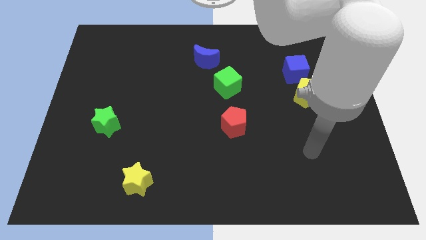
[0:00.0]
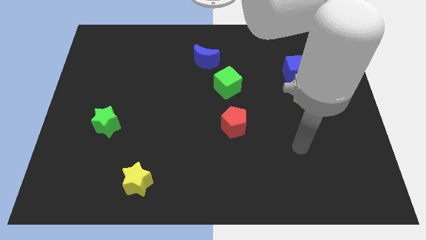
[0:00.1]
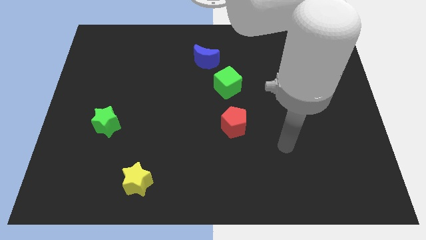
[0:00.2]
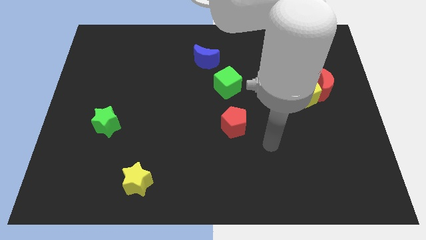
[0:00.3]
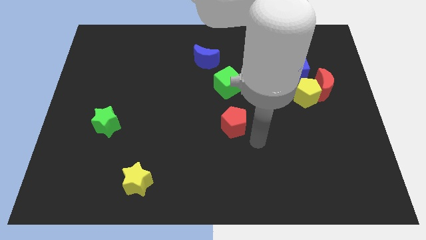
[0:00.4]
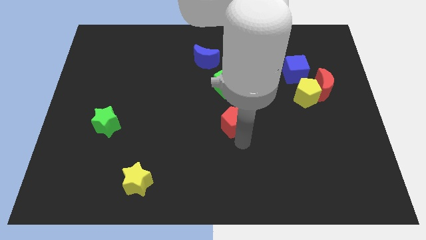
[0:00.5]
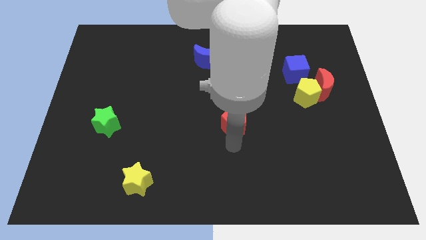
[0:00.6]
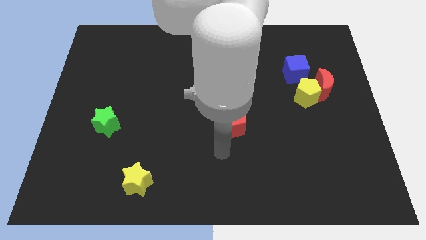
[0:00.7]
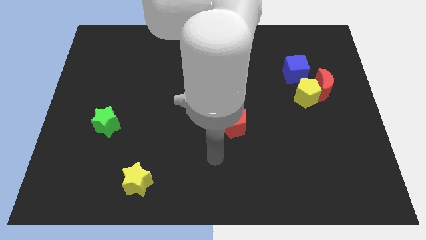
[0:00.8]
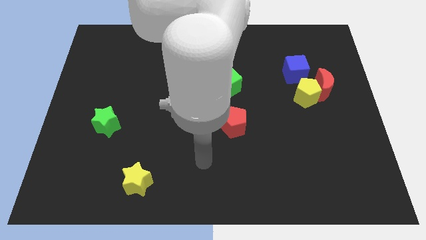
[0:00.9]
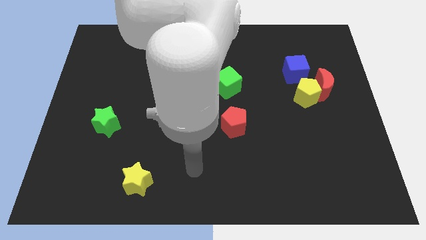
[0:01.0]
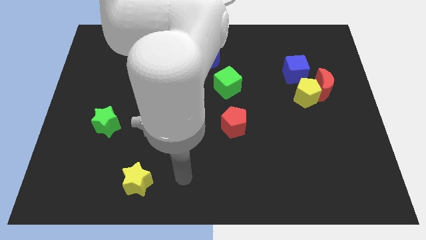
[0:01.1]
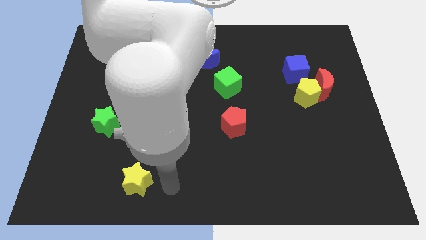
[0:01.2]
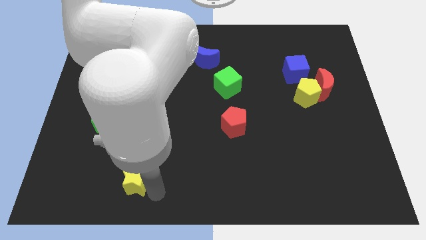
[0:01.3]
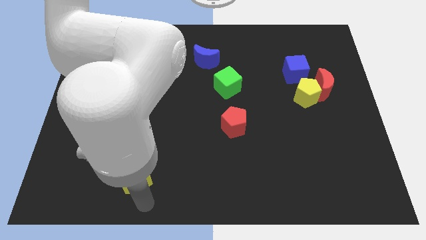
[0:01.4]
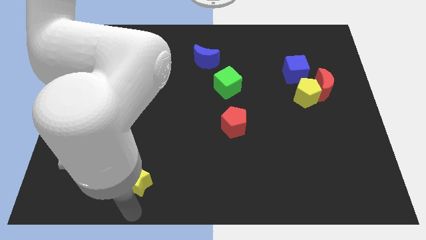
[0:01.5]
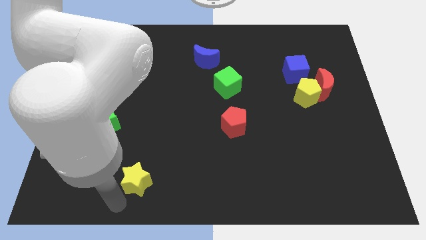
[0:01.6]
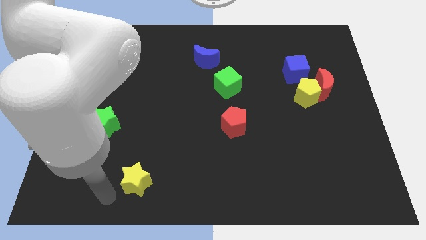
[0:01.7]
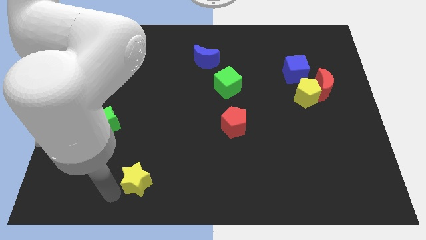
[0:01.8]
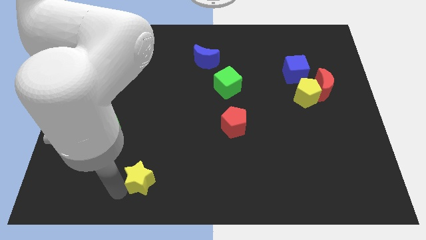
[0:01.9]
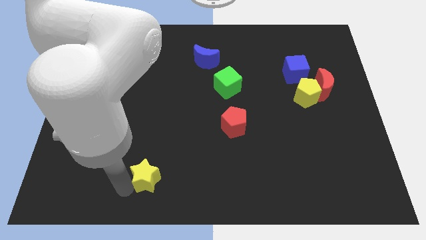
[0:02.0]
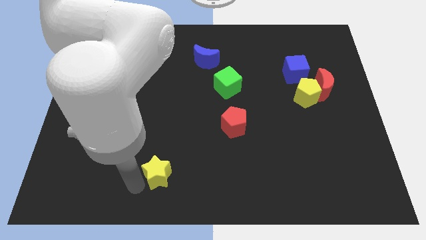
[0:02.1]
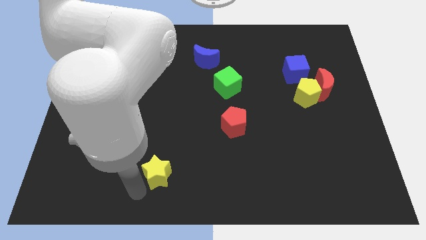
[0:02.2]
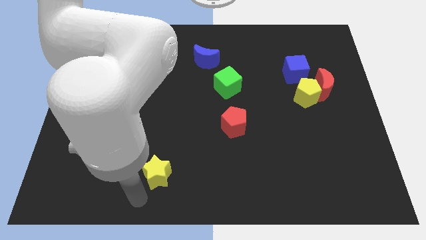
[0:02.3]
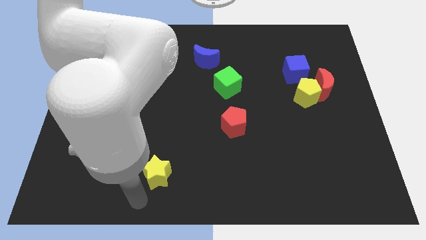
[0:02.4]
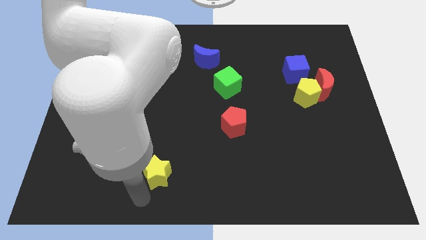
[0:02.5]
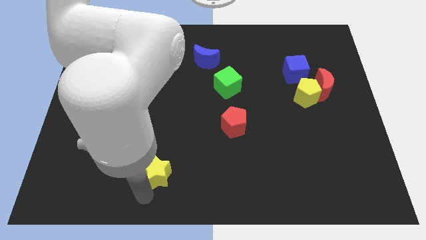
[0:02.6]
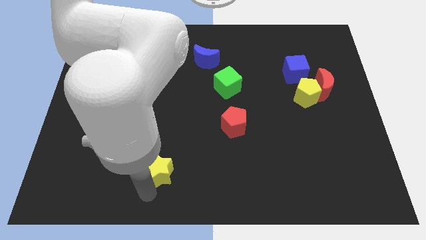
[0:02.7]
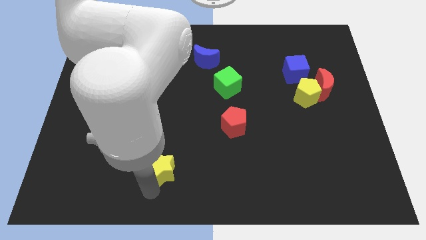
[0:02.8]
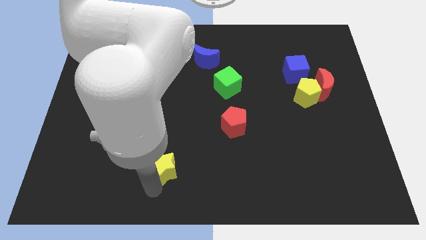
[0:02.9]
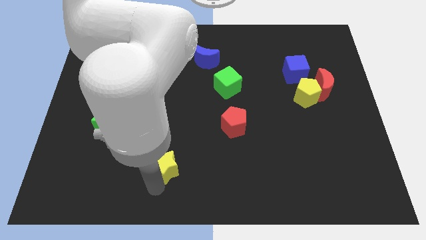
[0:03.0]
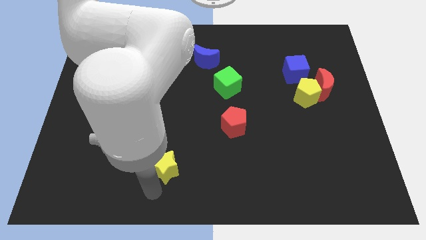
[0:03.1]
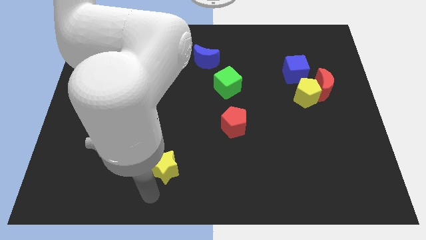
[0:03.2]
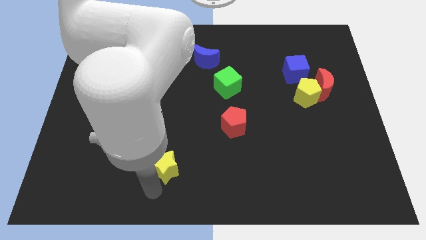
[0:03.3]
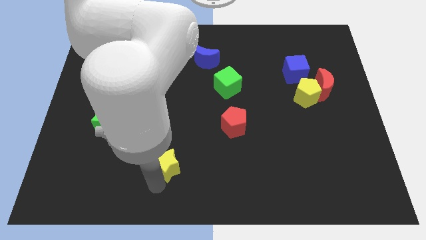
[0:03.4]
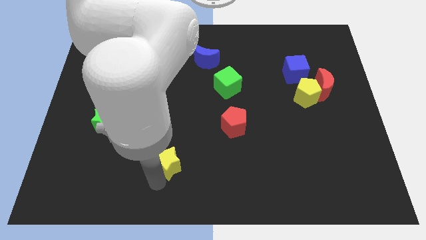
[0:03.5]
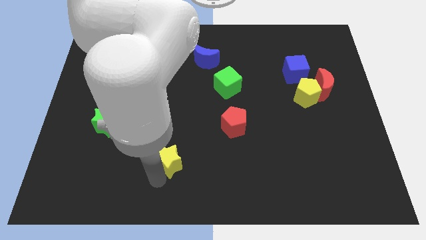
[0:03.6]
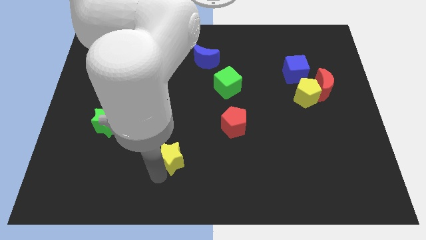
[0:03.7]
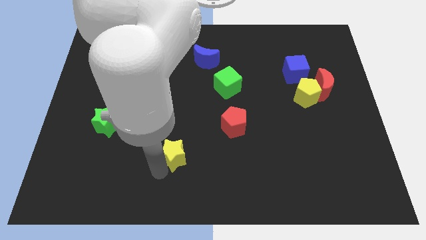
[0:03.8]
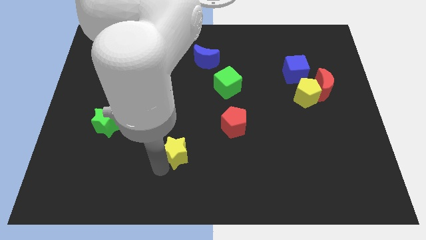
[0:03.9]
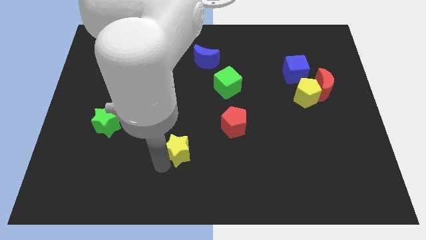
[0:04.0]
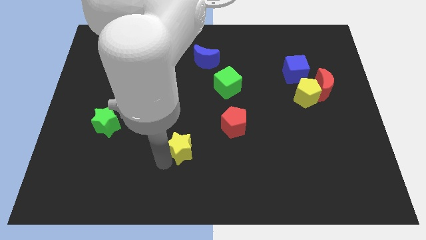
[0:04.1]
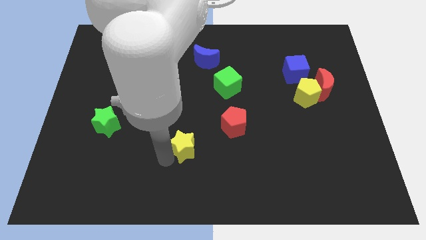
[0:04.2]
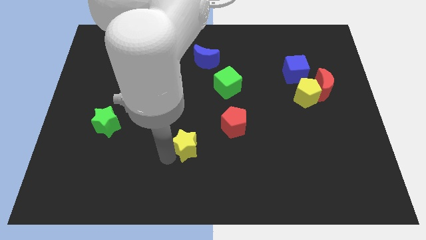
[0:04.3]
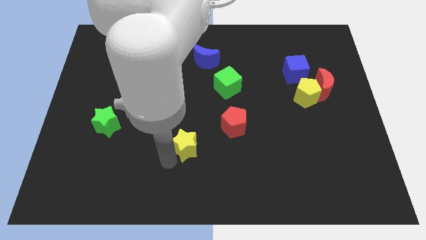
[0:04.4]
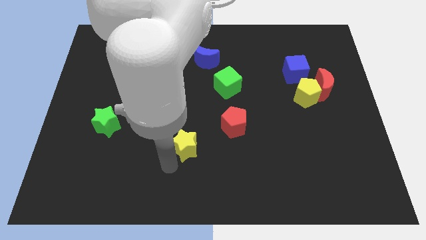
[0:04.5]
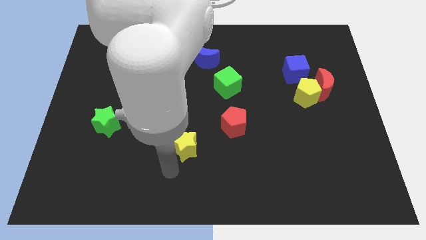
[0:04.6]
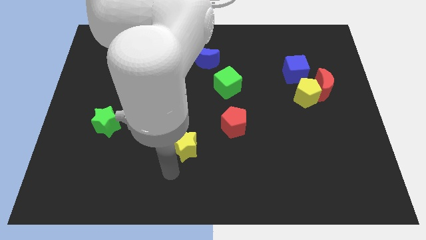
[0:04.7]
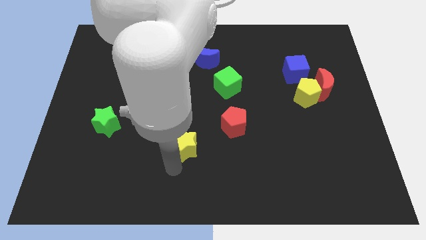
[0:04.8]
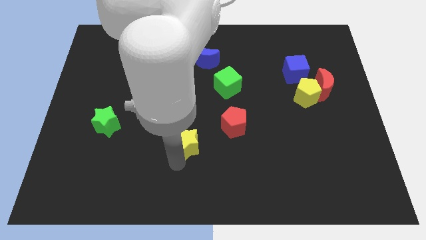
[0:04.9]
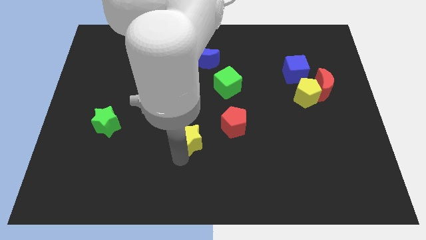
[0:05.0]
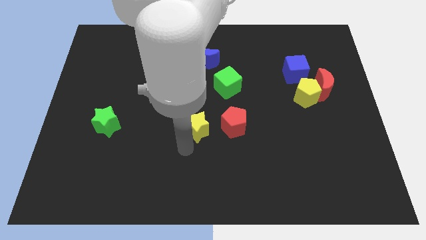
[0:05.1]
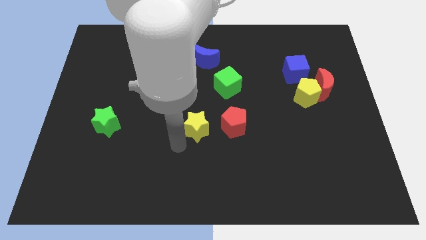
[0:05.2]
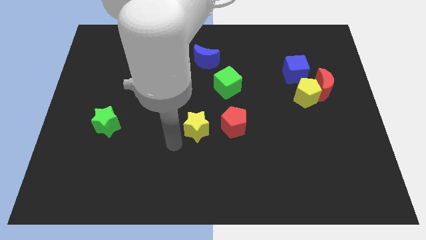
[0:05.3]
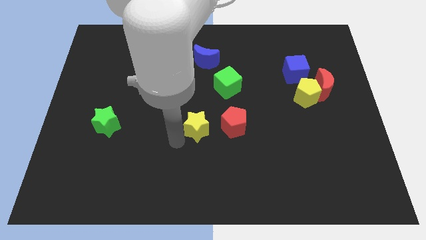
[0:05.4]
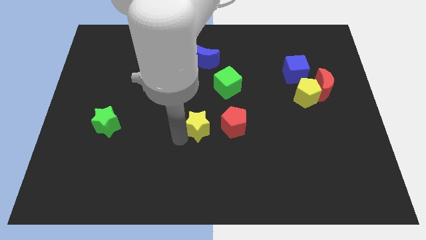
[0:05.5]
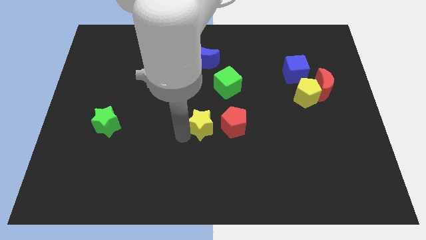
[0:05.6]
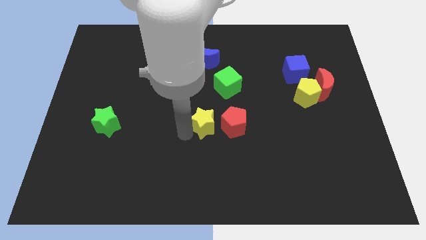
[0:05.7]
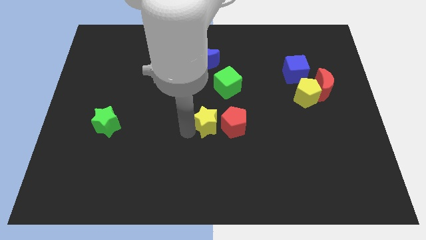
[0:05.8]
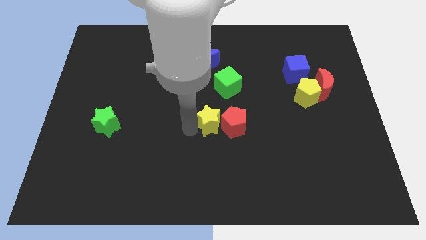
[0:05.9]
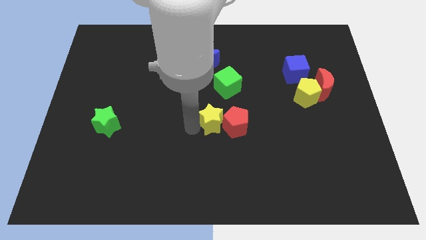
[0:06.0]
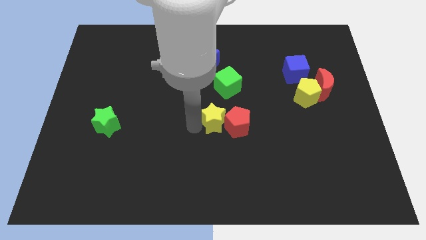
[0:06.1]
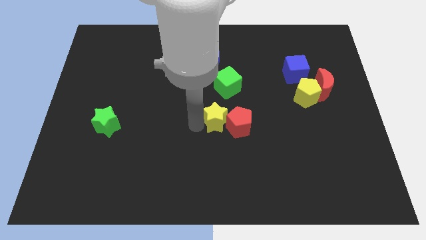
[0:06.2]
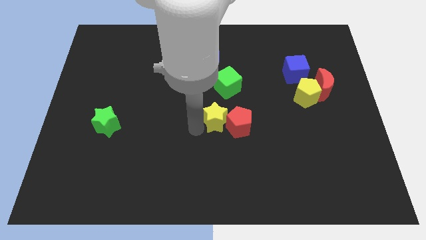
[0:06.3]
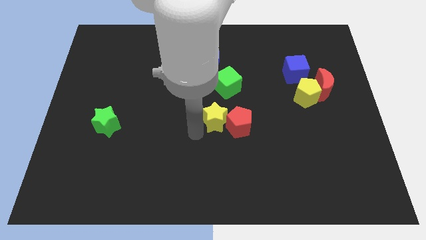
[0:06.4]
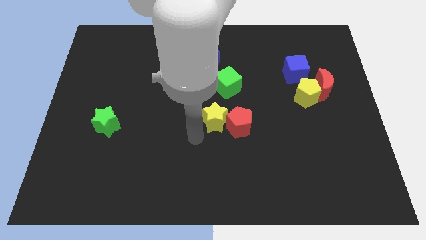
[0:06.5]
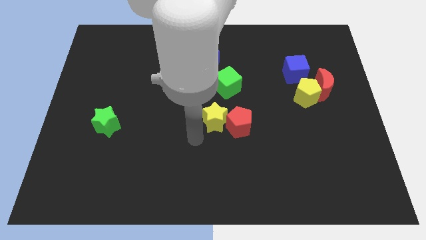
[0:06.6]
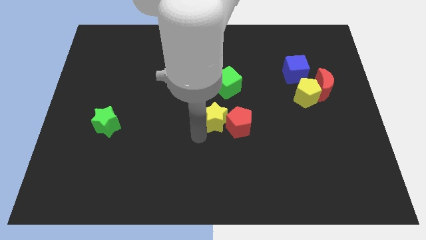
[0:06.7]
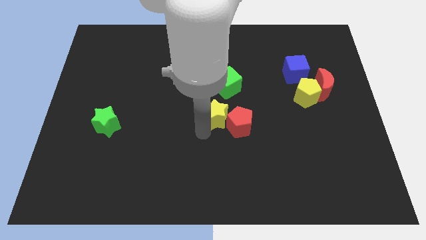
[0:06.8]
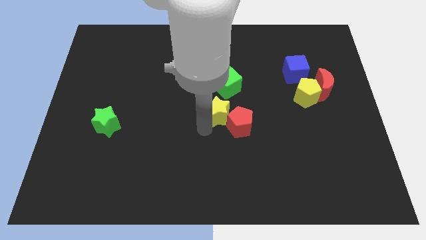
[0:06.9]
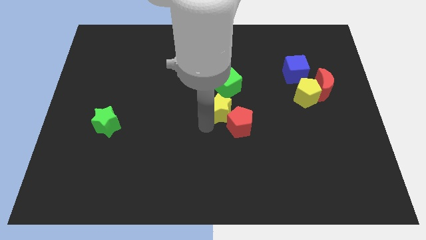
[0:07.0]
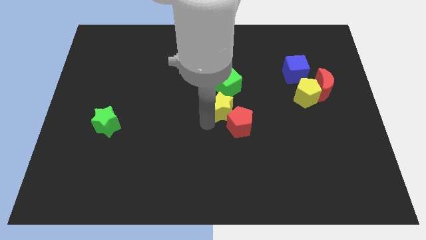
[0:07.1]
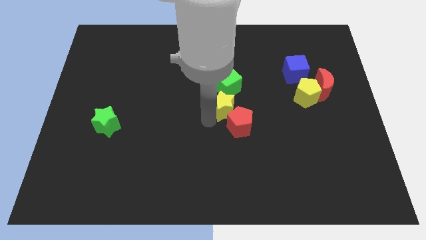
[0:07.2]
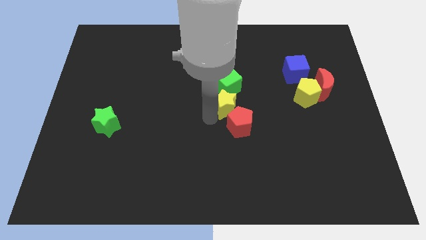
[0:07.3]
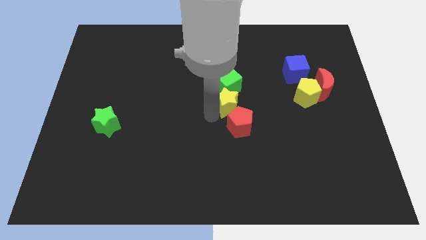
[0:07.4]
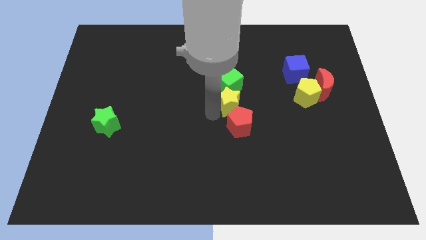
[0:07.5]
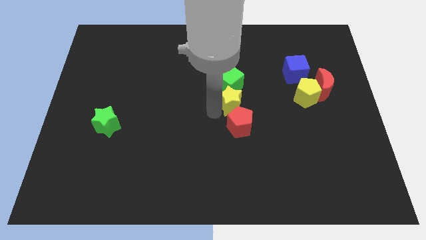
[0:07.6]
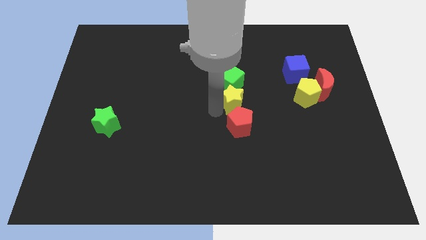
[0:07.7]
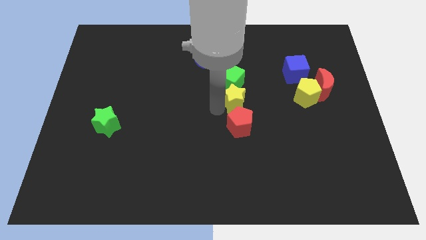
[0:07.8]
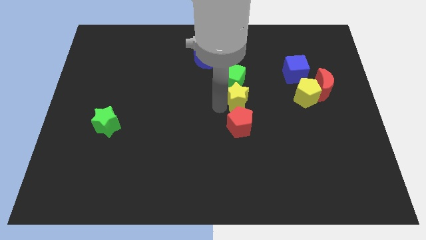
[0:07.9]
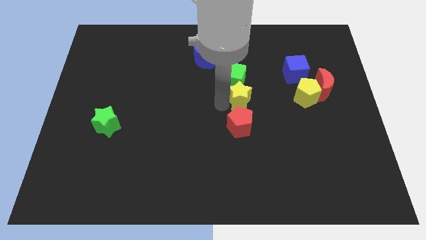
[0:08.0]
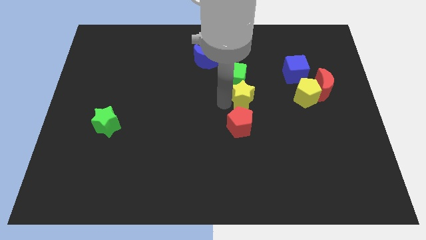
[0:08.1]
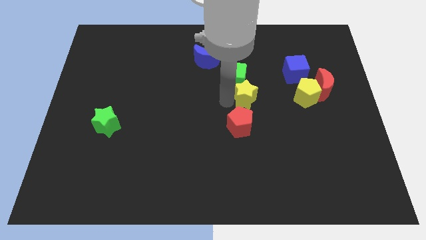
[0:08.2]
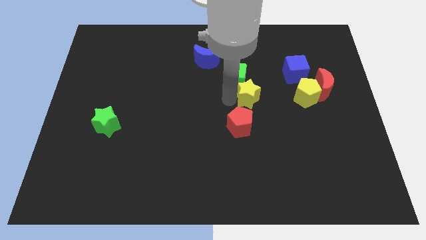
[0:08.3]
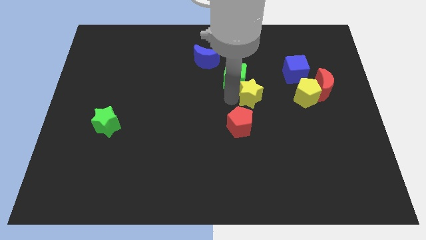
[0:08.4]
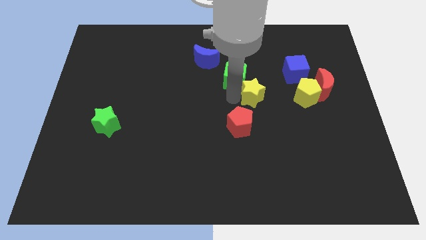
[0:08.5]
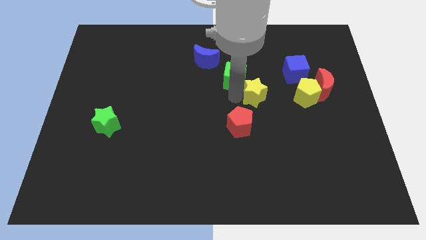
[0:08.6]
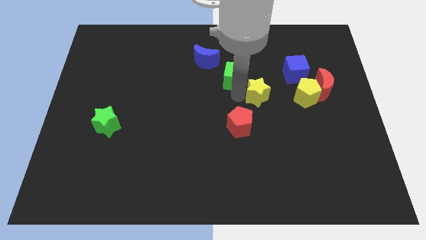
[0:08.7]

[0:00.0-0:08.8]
move the yellow star to the bottom left side of the blue cube
